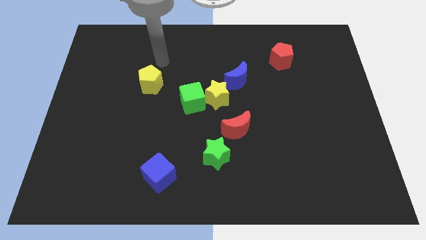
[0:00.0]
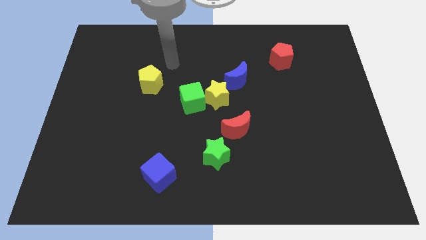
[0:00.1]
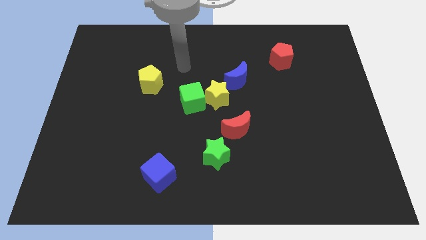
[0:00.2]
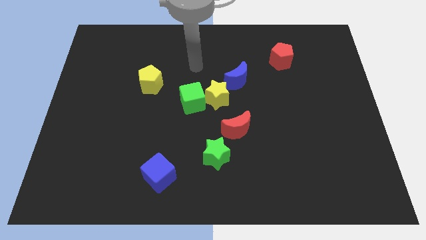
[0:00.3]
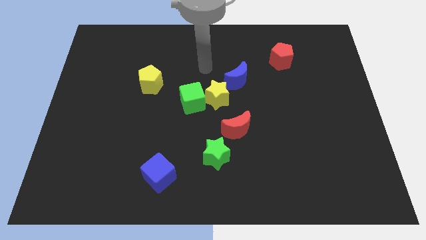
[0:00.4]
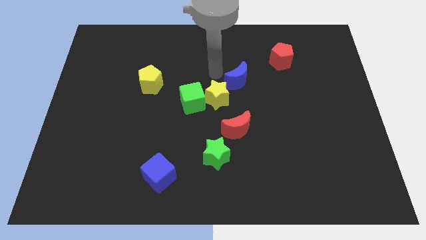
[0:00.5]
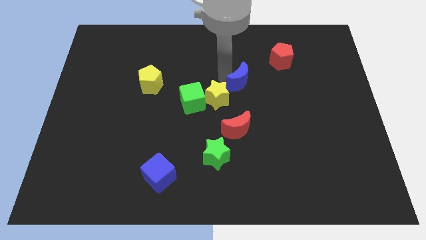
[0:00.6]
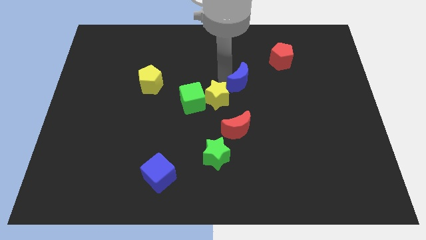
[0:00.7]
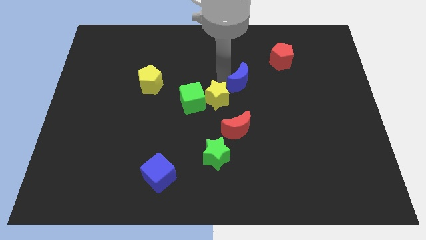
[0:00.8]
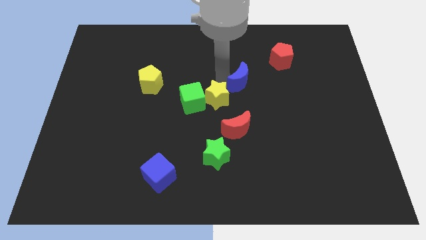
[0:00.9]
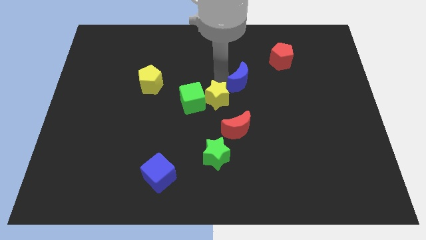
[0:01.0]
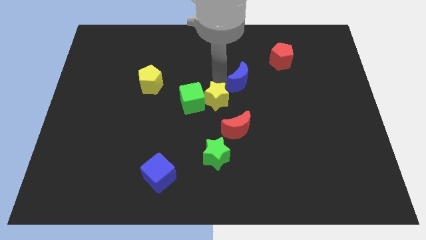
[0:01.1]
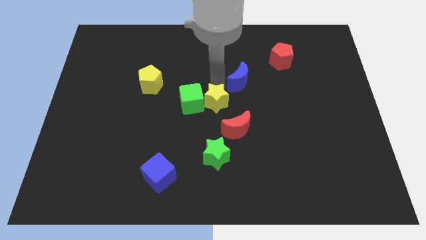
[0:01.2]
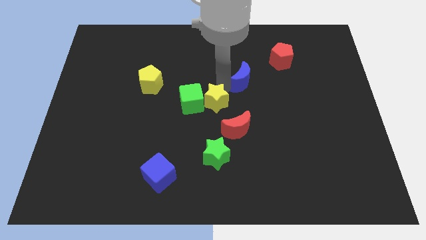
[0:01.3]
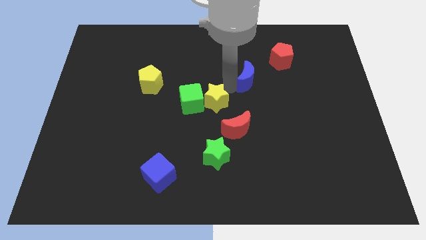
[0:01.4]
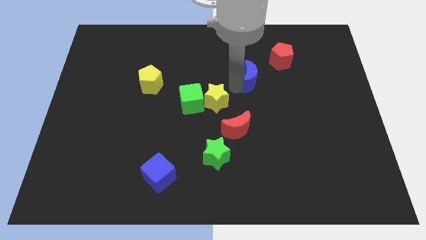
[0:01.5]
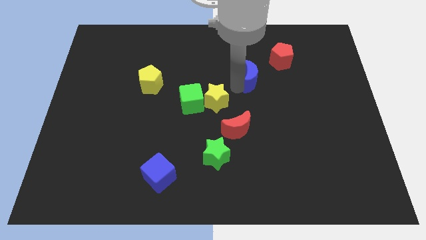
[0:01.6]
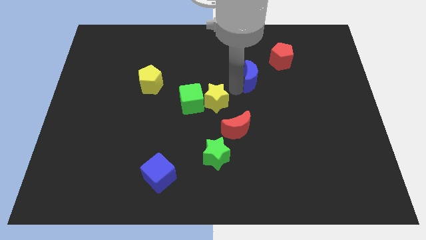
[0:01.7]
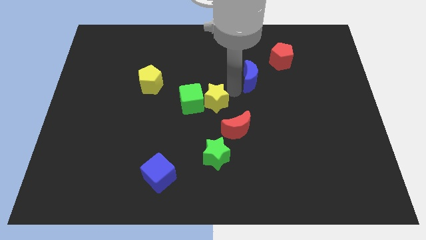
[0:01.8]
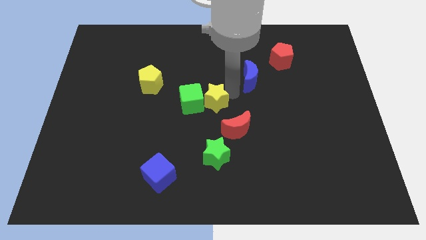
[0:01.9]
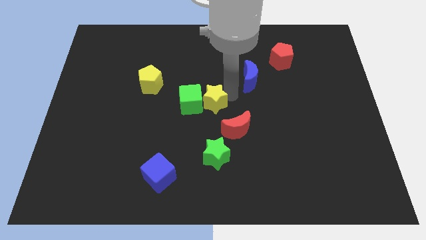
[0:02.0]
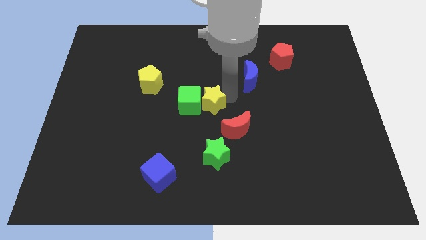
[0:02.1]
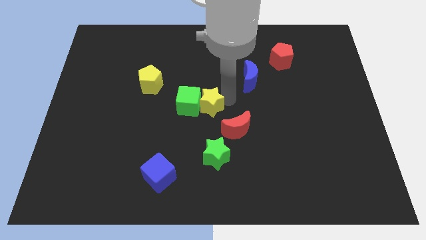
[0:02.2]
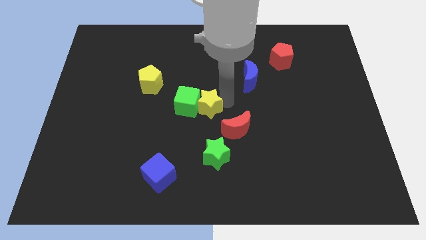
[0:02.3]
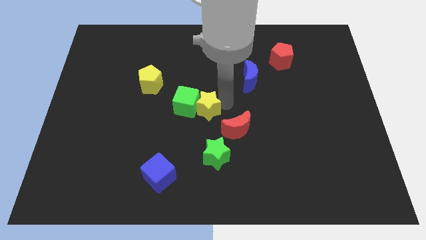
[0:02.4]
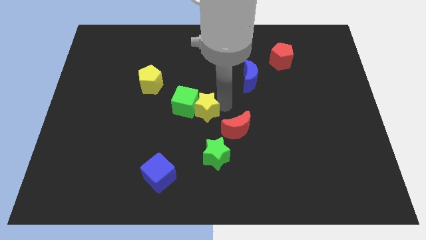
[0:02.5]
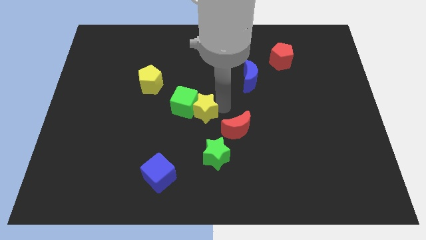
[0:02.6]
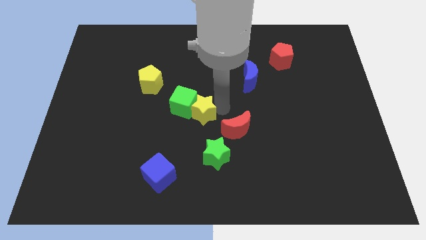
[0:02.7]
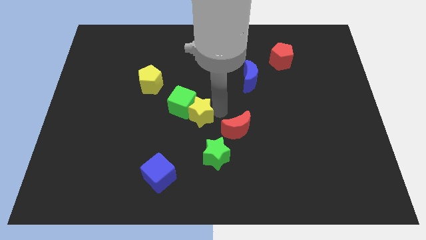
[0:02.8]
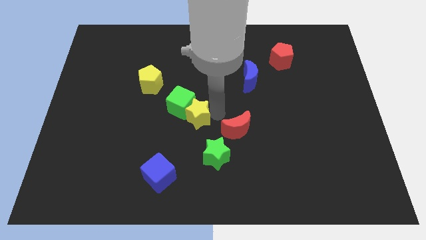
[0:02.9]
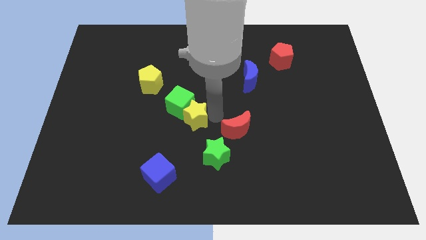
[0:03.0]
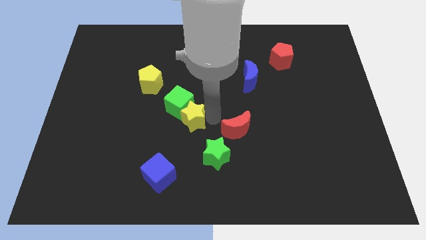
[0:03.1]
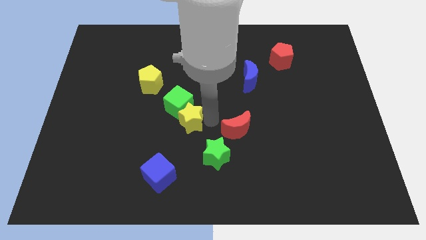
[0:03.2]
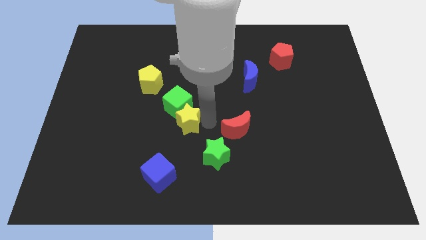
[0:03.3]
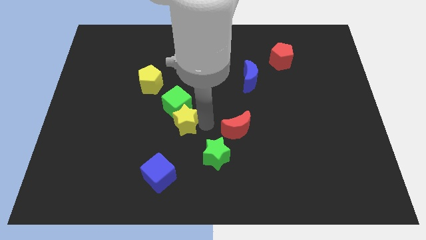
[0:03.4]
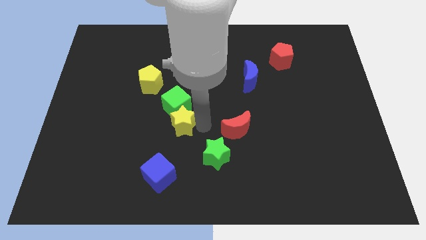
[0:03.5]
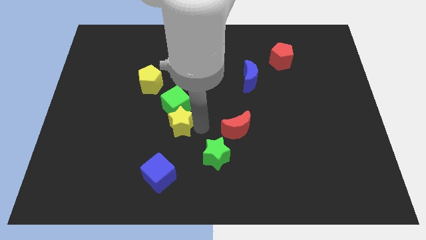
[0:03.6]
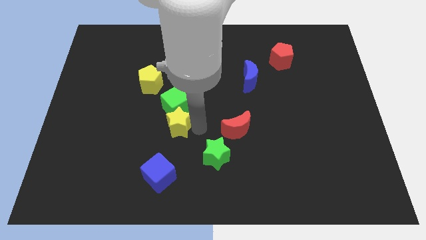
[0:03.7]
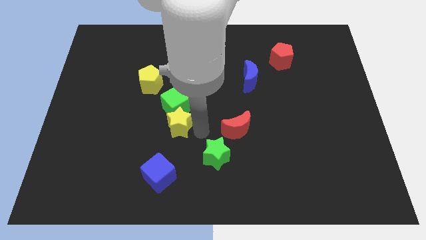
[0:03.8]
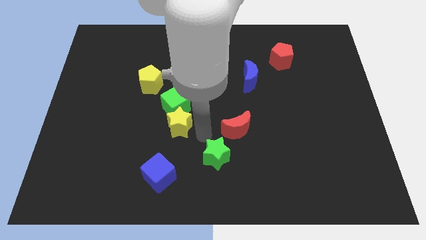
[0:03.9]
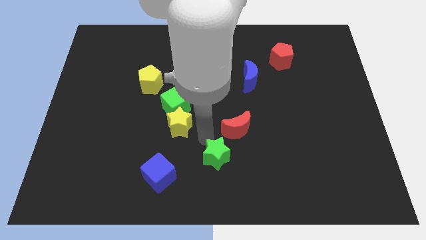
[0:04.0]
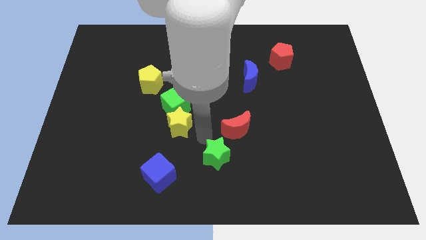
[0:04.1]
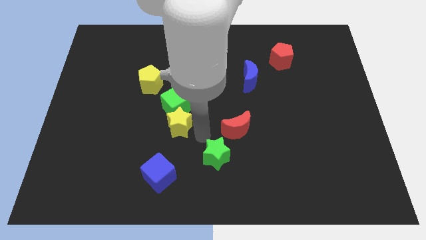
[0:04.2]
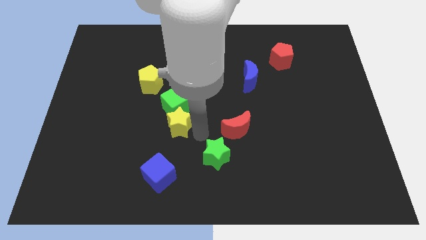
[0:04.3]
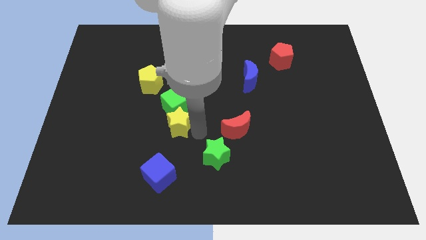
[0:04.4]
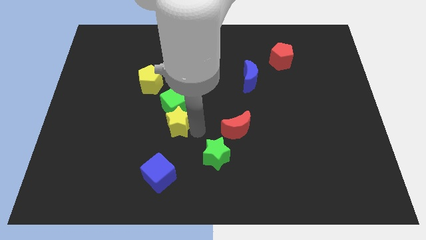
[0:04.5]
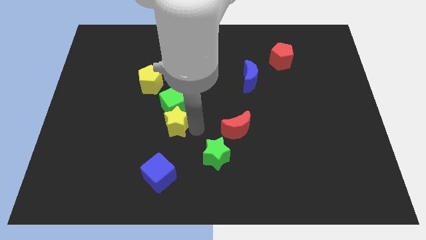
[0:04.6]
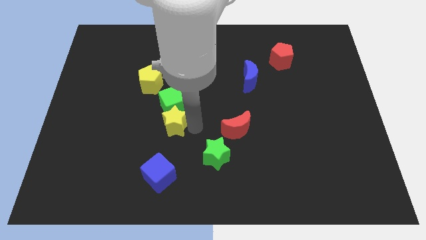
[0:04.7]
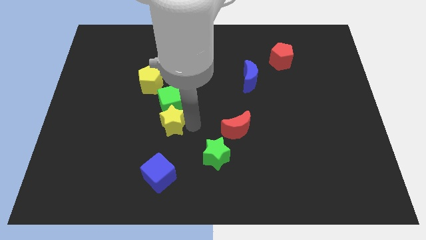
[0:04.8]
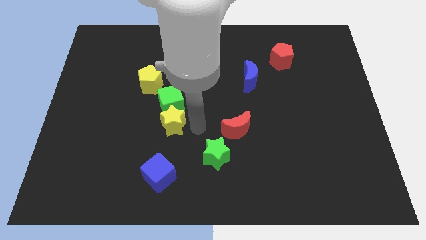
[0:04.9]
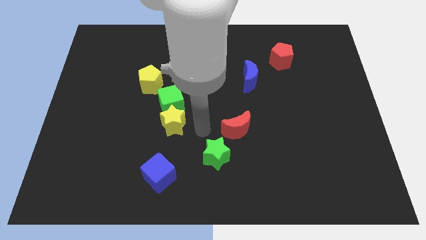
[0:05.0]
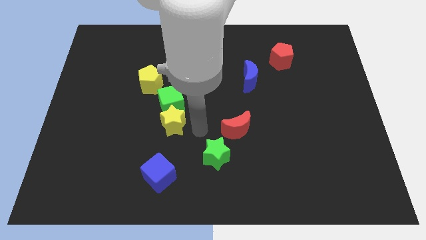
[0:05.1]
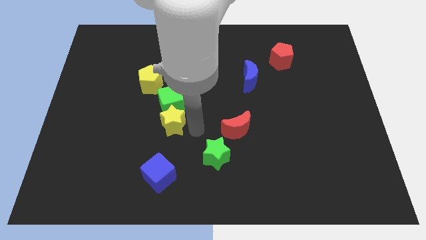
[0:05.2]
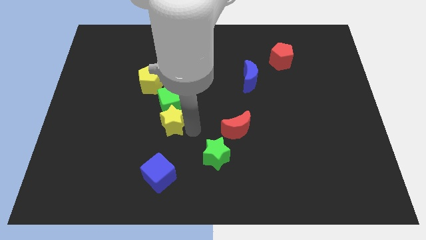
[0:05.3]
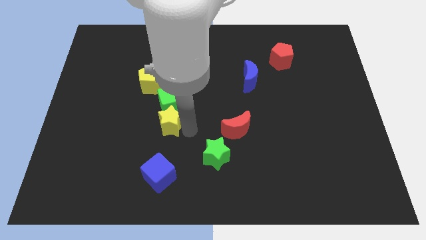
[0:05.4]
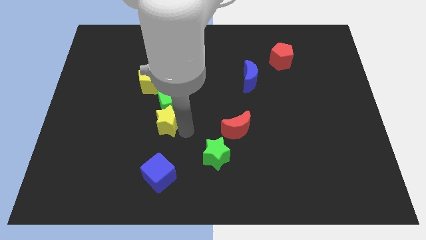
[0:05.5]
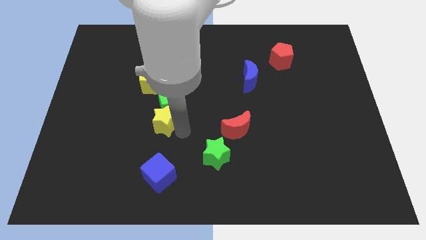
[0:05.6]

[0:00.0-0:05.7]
put the yellow star to the bottom side of the yellow pentagon

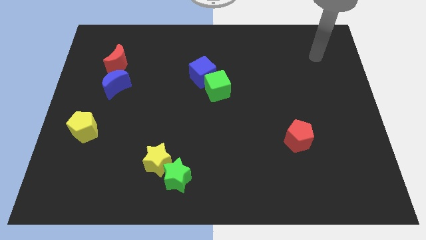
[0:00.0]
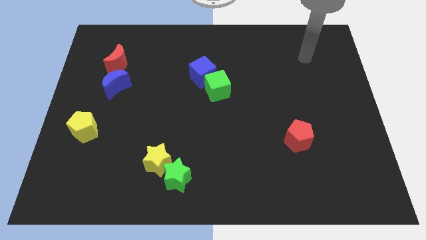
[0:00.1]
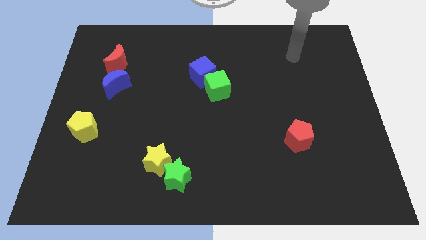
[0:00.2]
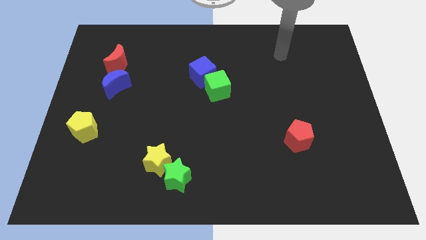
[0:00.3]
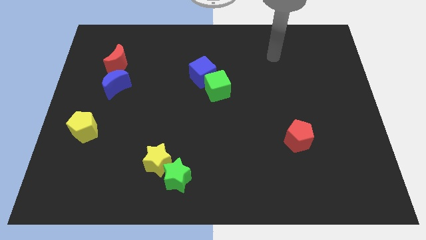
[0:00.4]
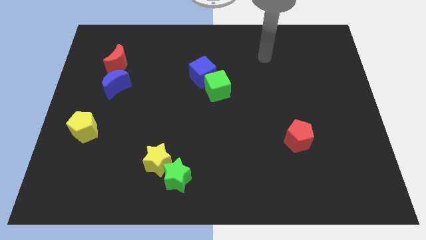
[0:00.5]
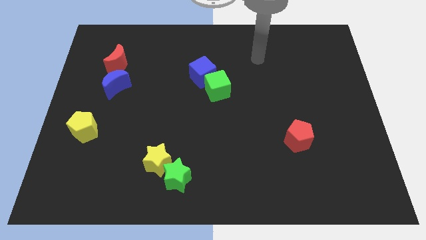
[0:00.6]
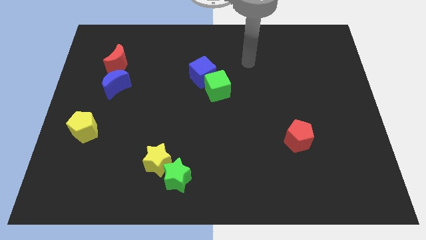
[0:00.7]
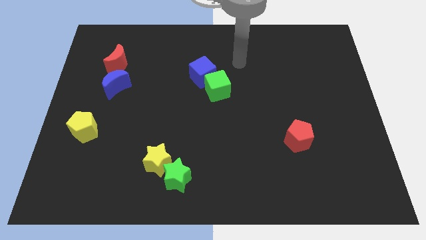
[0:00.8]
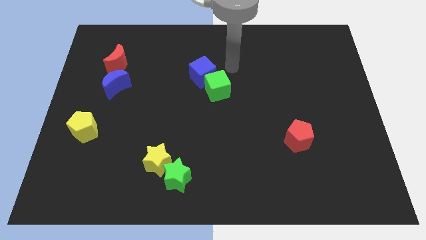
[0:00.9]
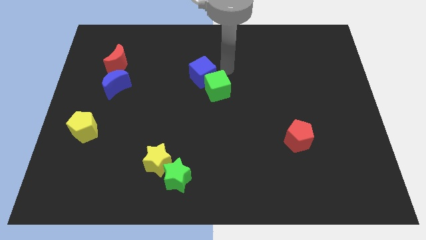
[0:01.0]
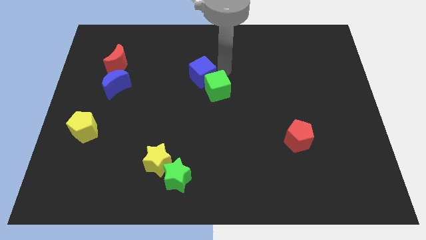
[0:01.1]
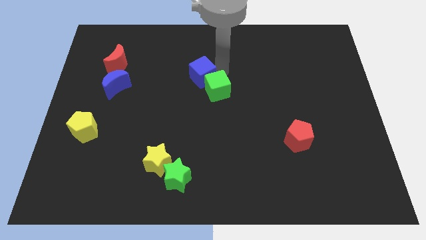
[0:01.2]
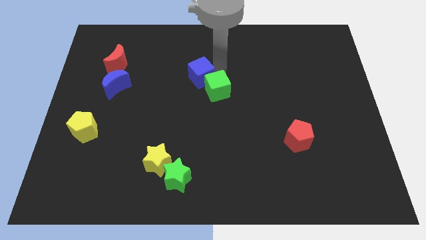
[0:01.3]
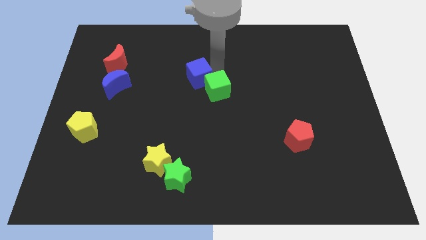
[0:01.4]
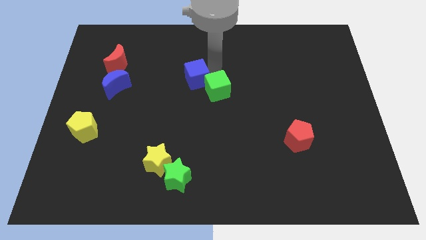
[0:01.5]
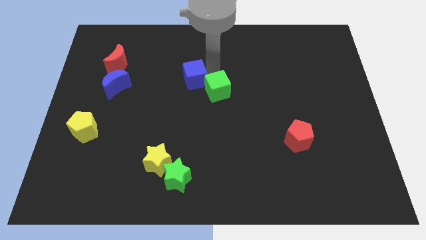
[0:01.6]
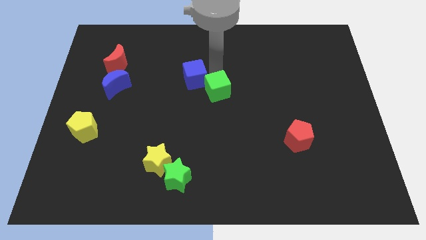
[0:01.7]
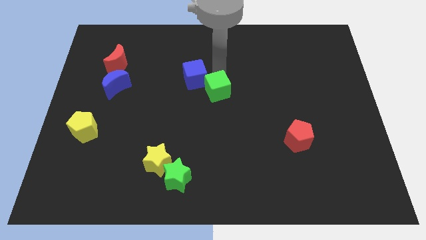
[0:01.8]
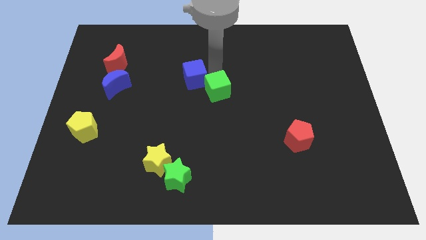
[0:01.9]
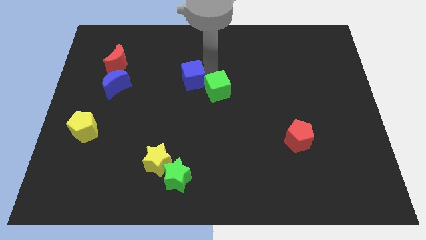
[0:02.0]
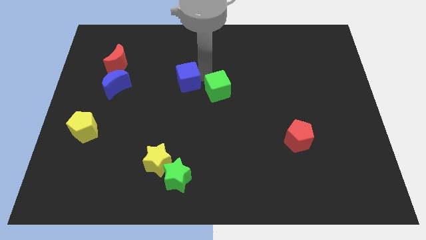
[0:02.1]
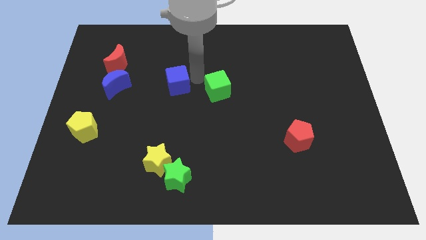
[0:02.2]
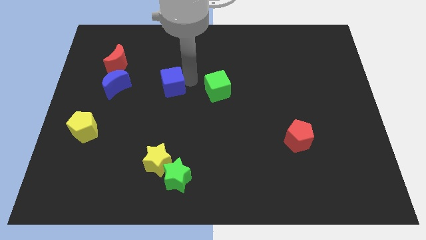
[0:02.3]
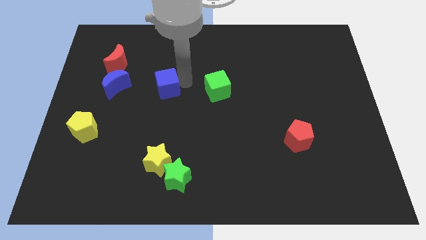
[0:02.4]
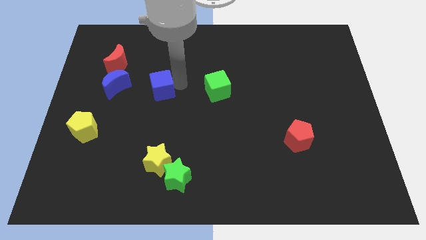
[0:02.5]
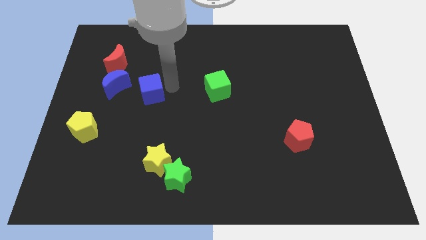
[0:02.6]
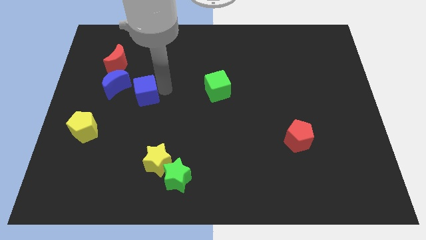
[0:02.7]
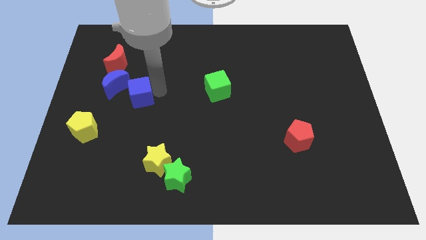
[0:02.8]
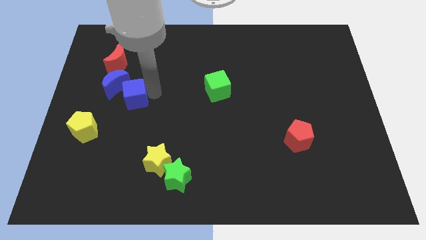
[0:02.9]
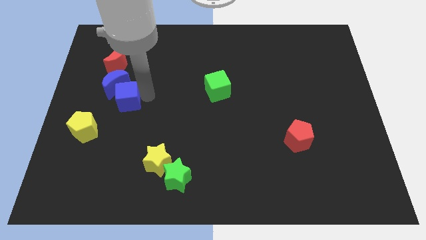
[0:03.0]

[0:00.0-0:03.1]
push the blue cube below the red moon
